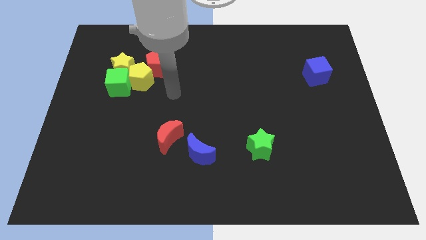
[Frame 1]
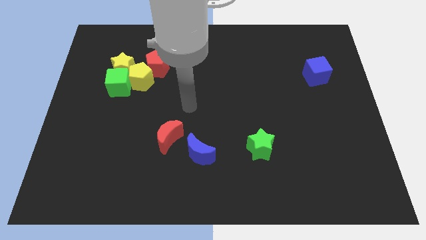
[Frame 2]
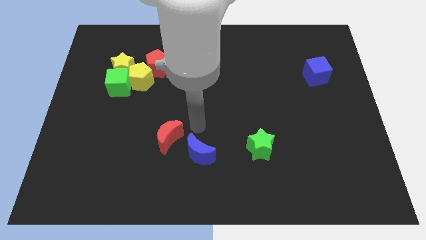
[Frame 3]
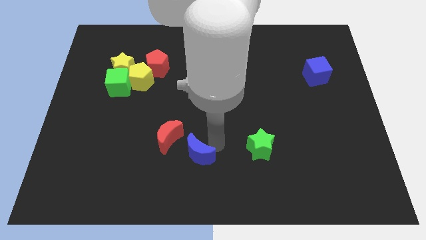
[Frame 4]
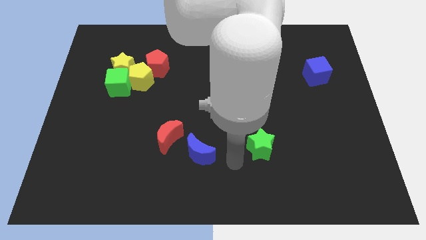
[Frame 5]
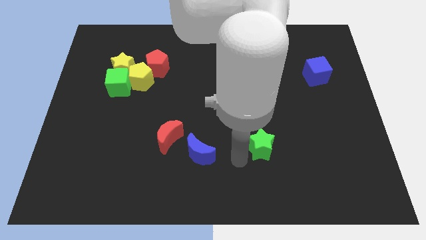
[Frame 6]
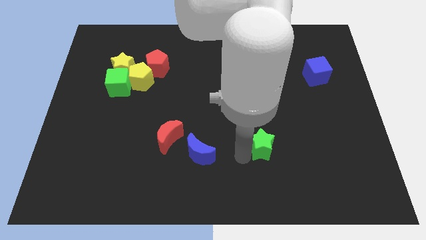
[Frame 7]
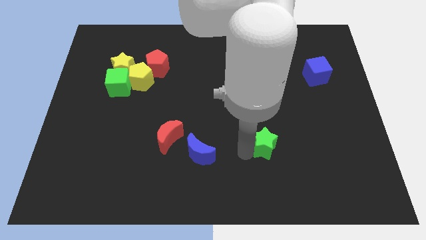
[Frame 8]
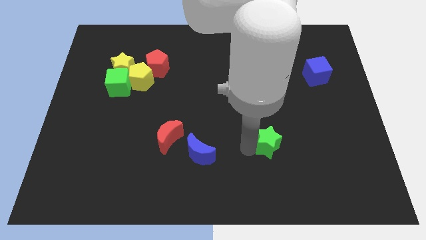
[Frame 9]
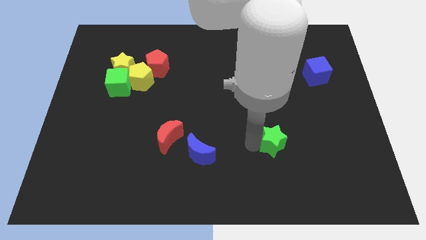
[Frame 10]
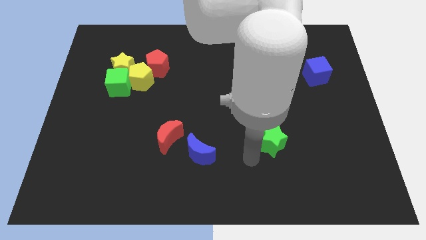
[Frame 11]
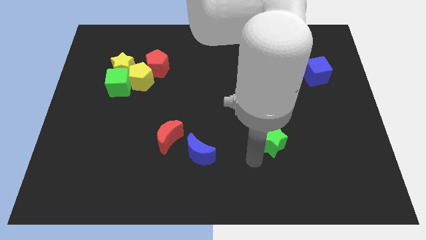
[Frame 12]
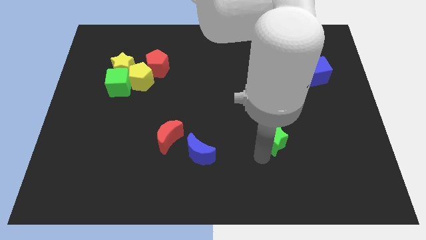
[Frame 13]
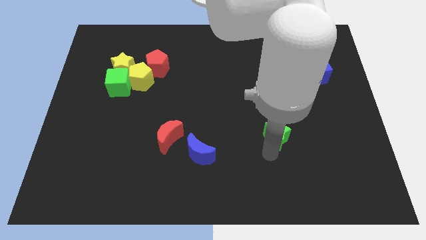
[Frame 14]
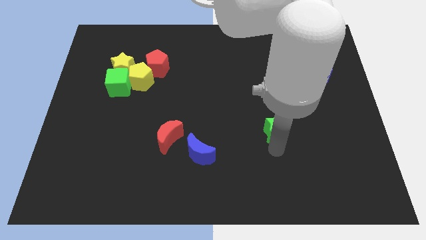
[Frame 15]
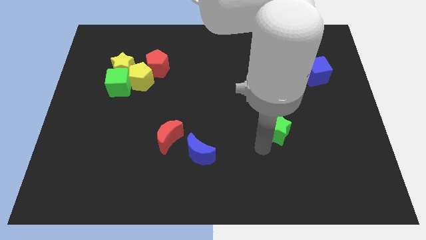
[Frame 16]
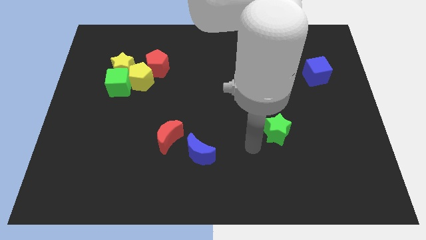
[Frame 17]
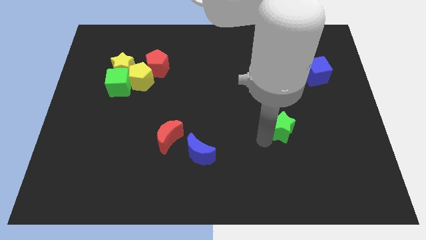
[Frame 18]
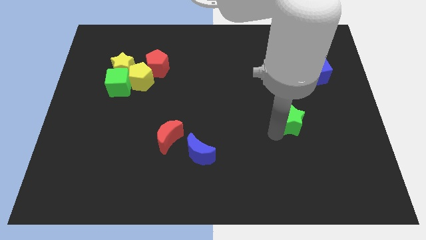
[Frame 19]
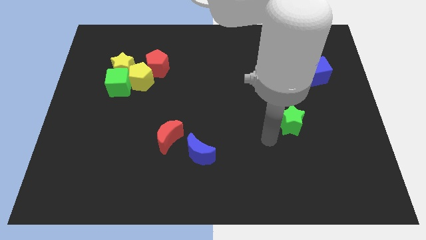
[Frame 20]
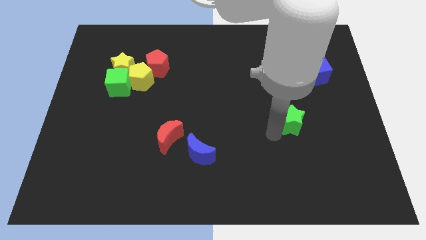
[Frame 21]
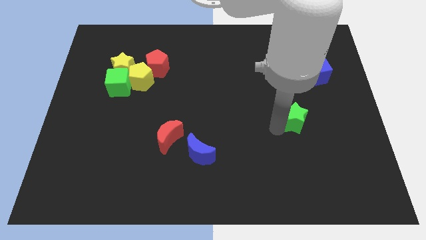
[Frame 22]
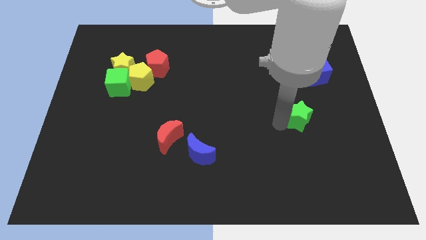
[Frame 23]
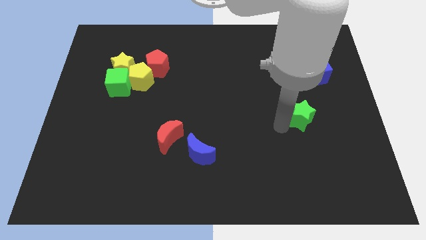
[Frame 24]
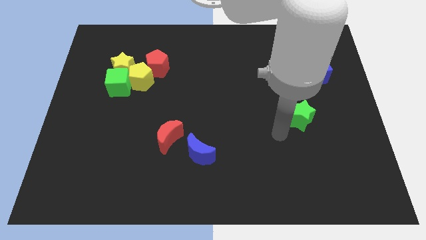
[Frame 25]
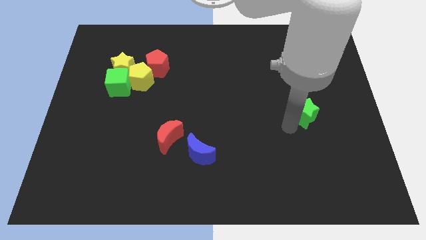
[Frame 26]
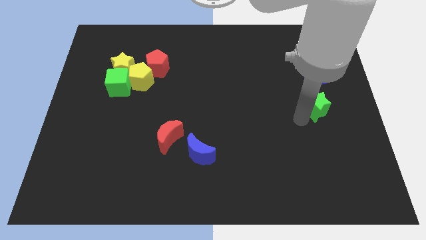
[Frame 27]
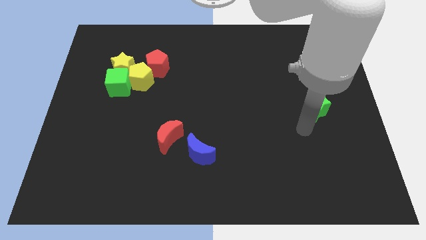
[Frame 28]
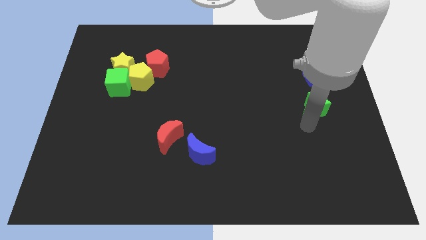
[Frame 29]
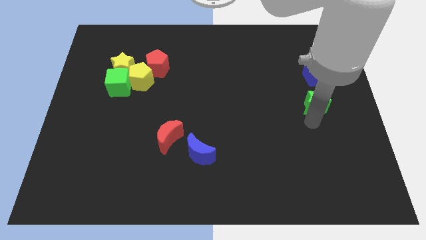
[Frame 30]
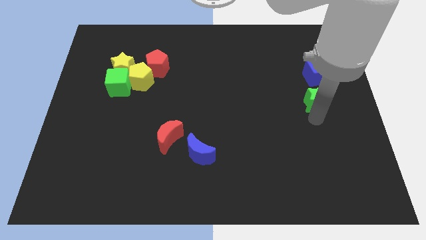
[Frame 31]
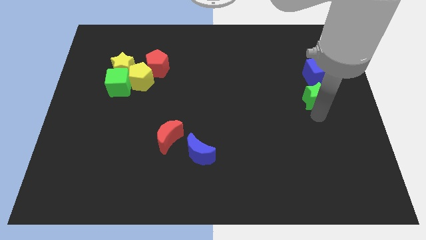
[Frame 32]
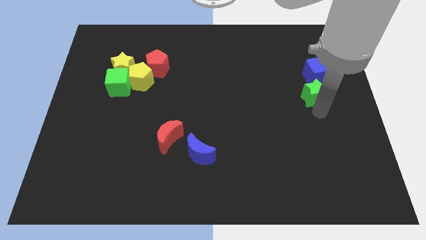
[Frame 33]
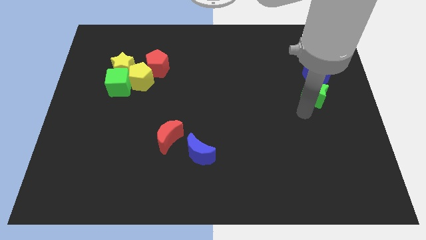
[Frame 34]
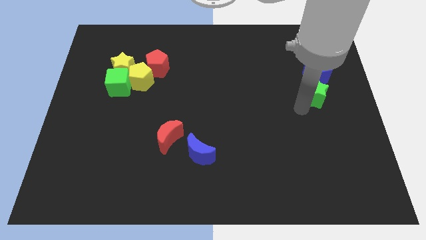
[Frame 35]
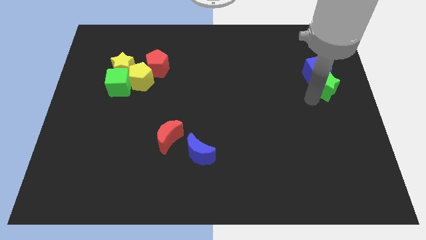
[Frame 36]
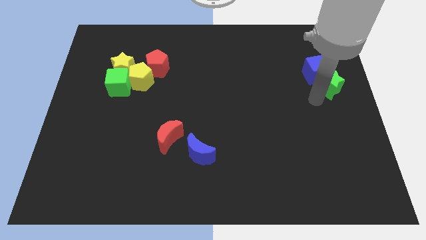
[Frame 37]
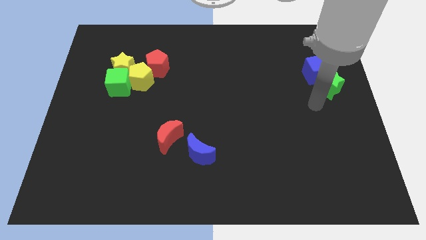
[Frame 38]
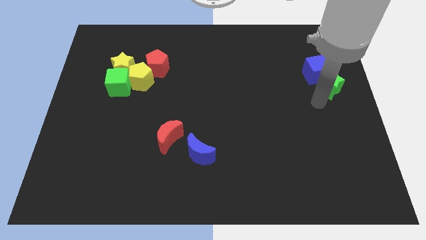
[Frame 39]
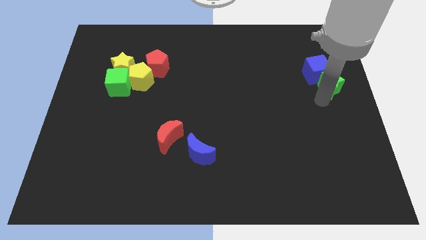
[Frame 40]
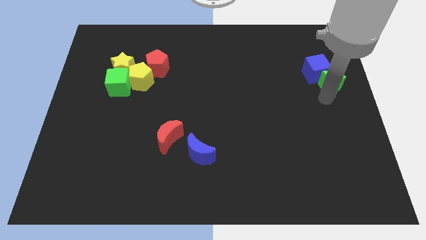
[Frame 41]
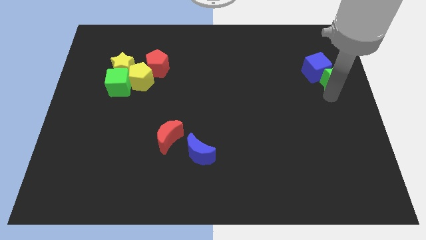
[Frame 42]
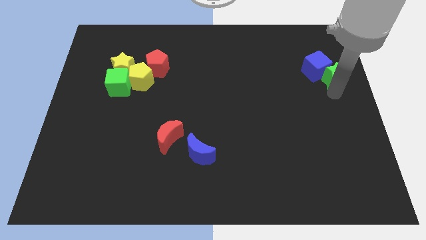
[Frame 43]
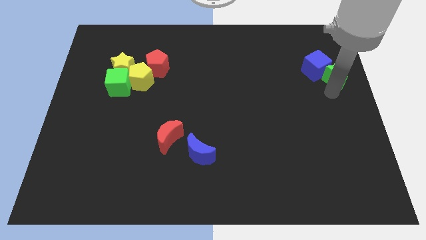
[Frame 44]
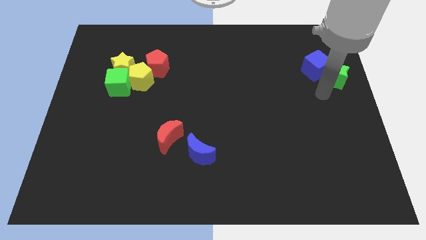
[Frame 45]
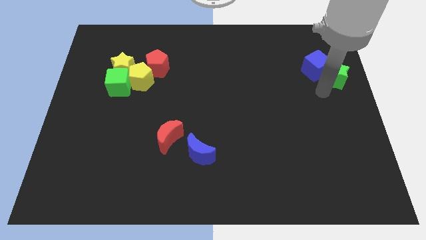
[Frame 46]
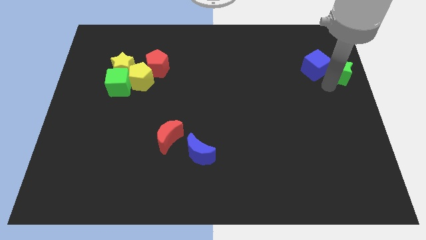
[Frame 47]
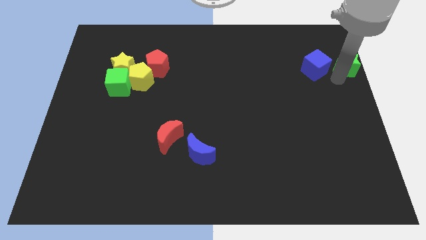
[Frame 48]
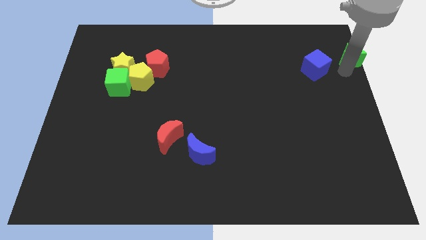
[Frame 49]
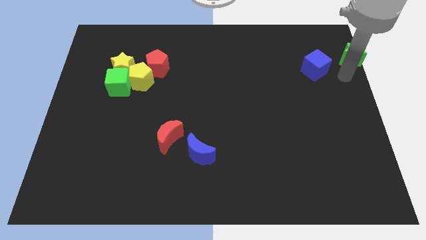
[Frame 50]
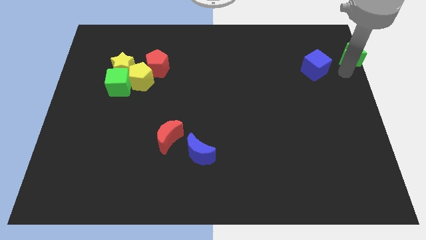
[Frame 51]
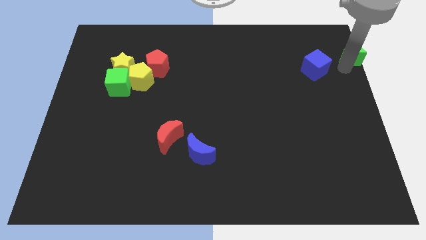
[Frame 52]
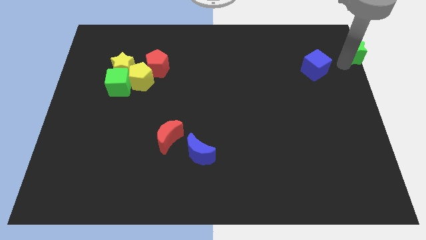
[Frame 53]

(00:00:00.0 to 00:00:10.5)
push the green star to the top right corner

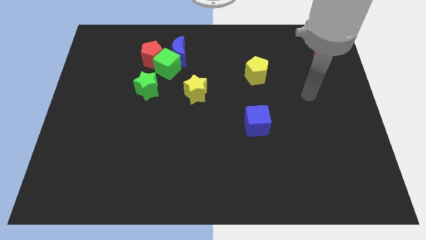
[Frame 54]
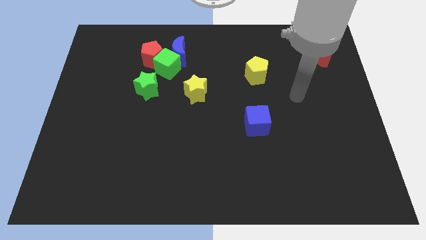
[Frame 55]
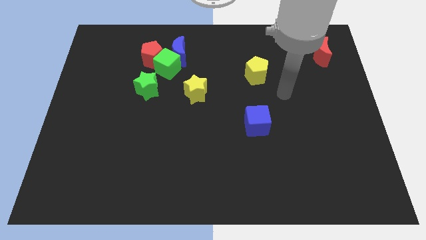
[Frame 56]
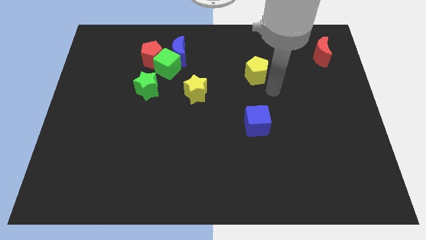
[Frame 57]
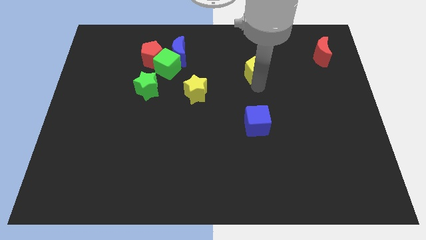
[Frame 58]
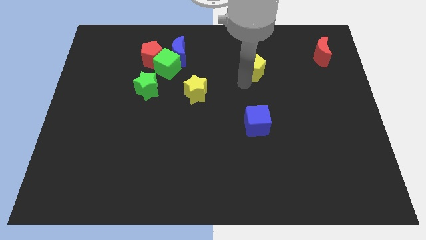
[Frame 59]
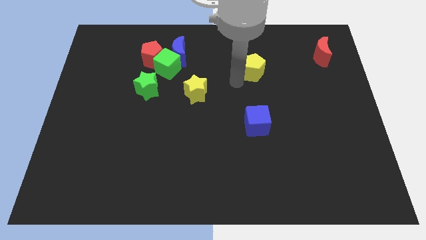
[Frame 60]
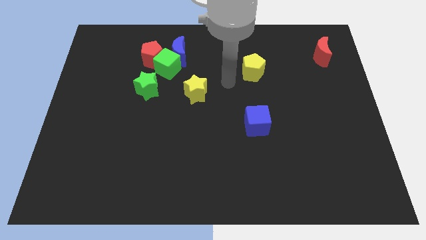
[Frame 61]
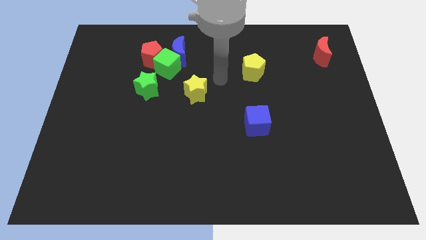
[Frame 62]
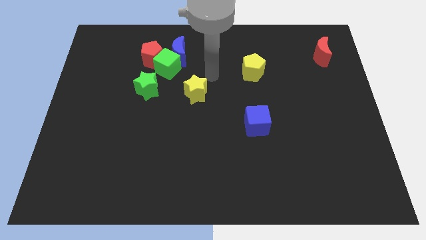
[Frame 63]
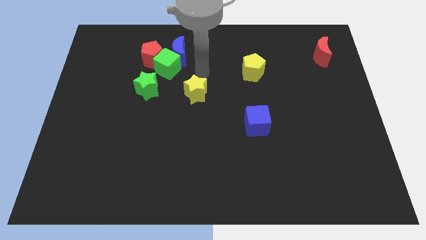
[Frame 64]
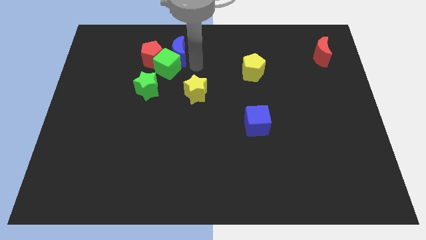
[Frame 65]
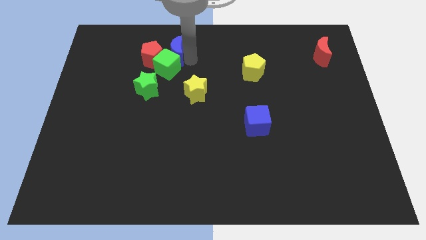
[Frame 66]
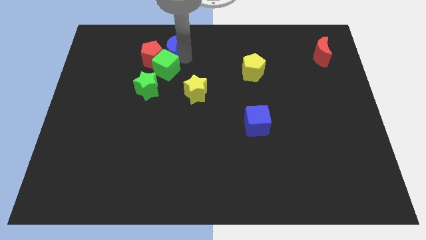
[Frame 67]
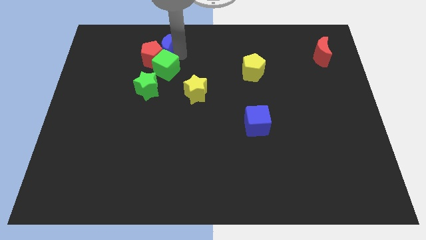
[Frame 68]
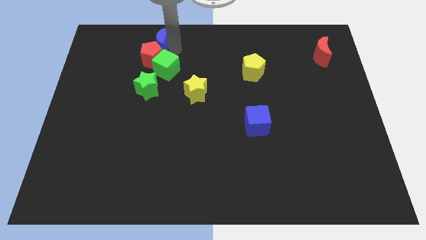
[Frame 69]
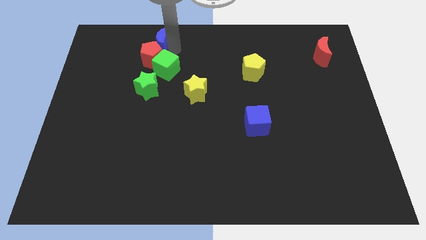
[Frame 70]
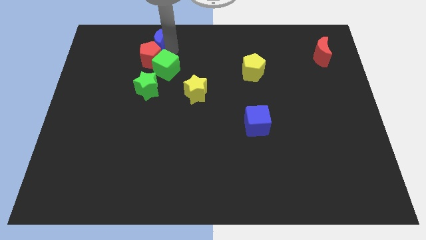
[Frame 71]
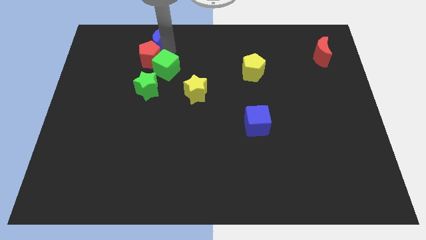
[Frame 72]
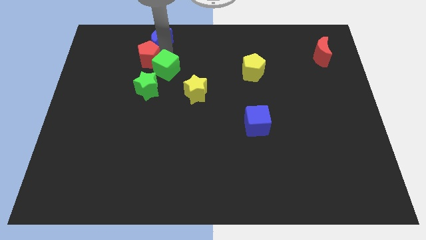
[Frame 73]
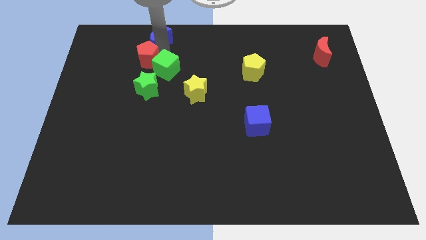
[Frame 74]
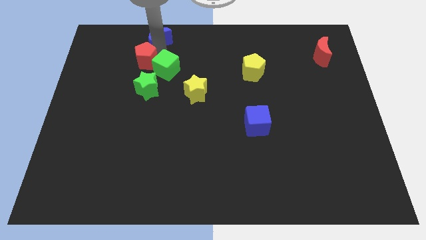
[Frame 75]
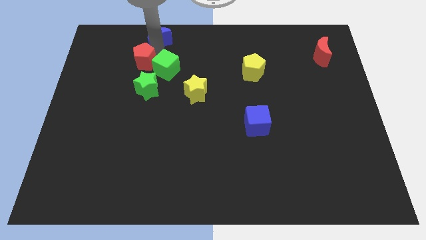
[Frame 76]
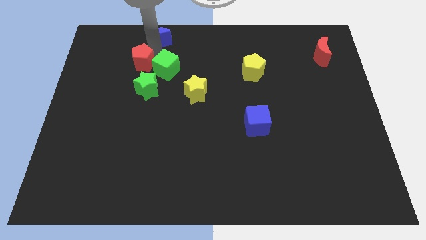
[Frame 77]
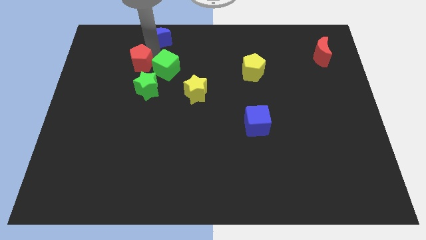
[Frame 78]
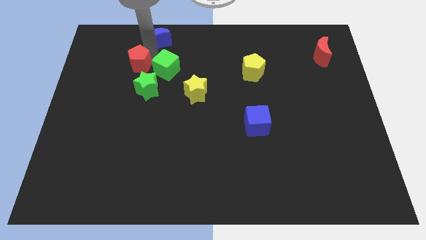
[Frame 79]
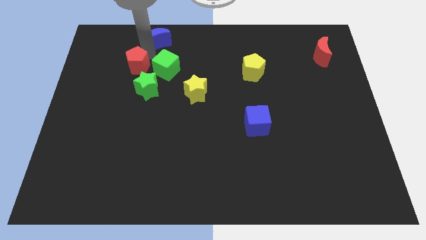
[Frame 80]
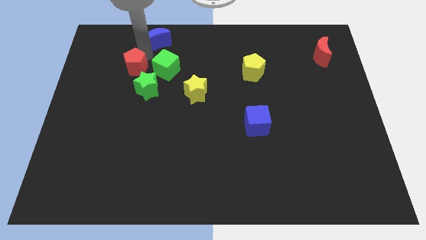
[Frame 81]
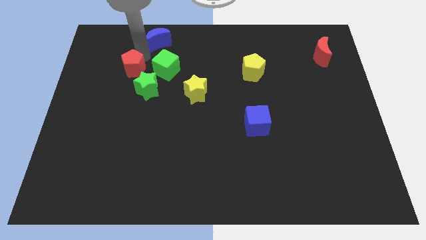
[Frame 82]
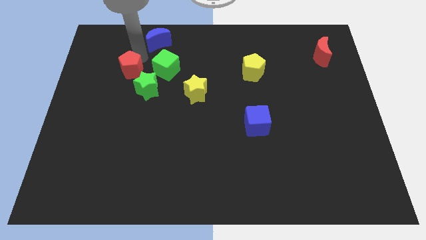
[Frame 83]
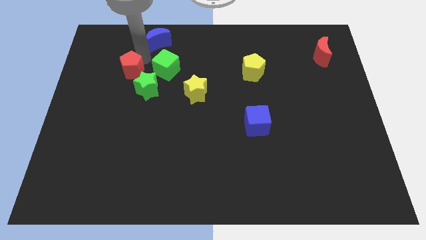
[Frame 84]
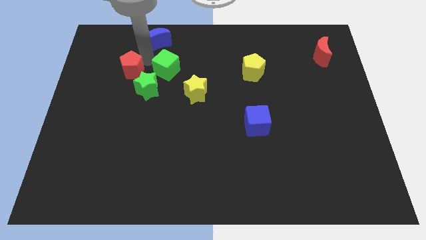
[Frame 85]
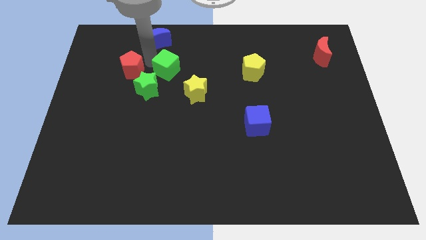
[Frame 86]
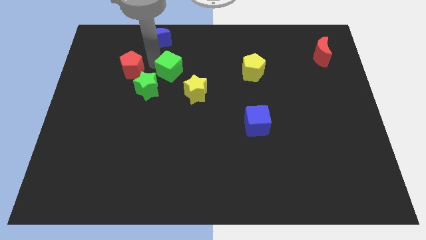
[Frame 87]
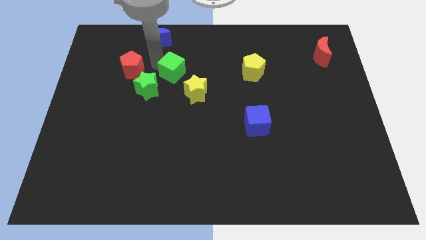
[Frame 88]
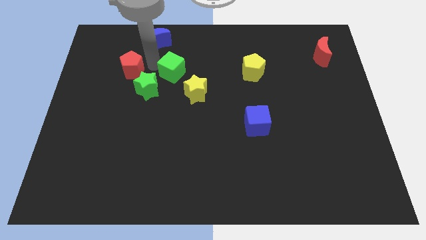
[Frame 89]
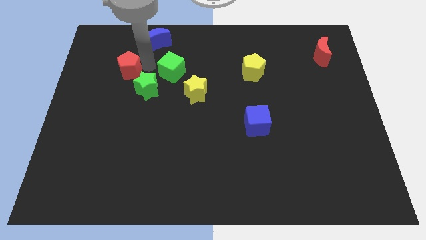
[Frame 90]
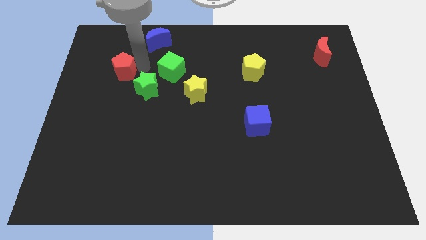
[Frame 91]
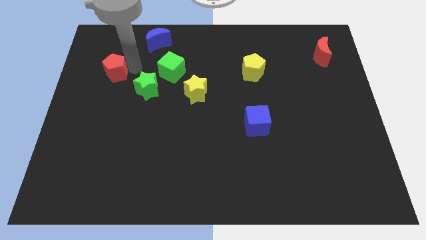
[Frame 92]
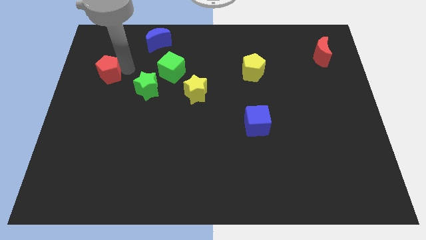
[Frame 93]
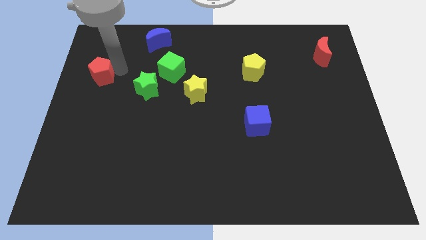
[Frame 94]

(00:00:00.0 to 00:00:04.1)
slide the red pentagon to the center left
